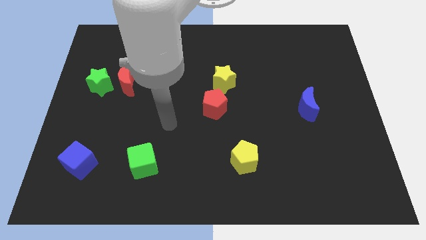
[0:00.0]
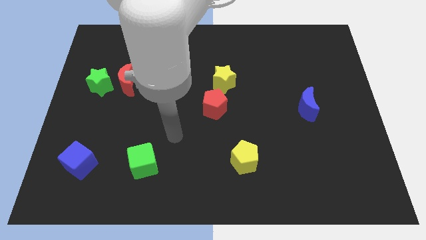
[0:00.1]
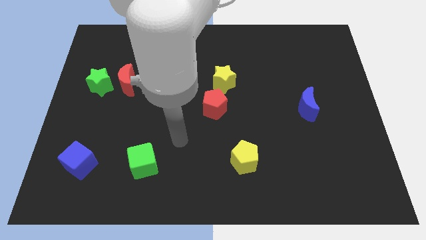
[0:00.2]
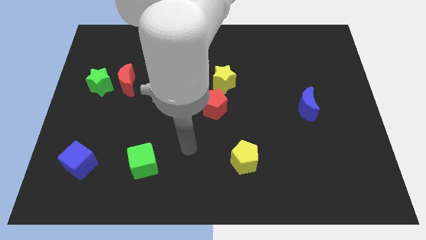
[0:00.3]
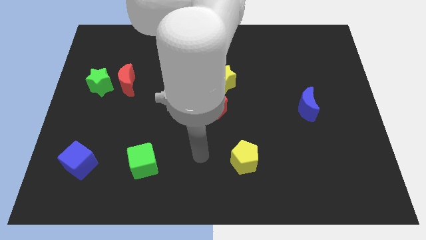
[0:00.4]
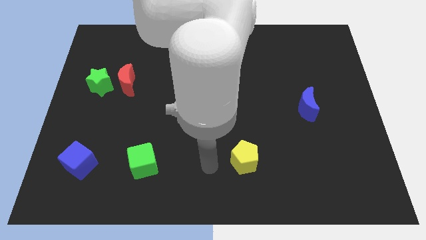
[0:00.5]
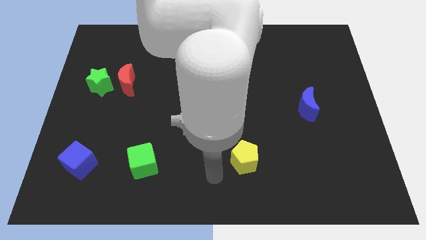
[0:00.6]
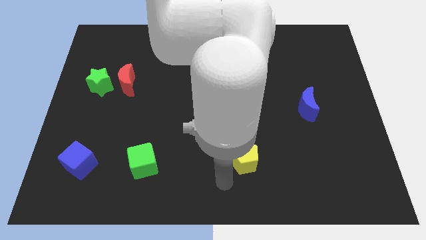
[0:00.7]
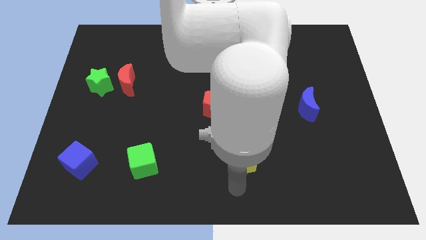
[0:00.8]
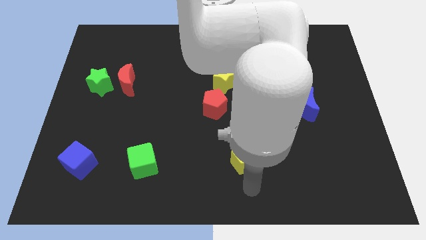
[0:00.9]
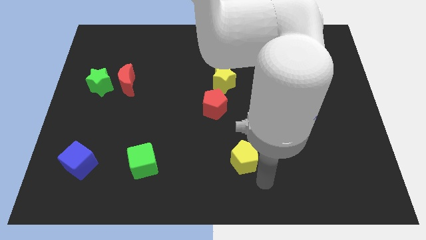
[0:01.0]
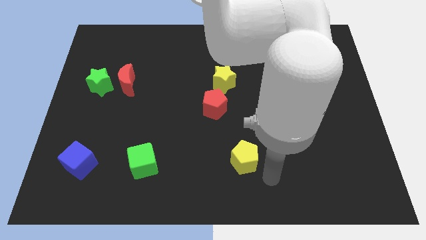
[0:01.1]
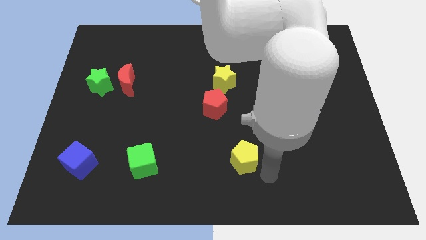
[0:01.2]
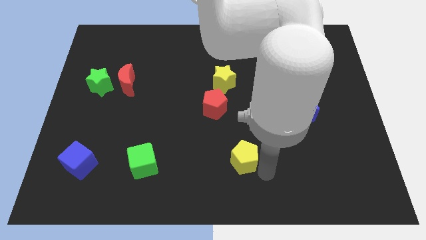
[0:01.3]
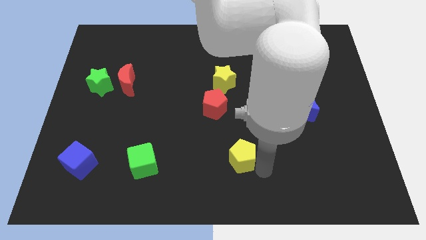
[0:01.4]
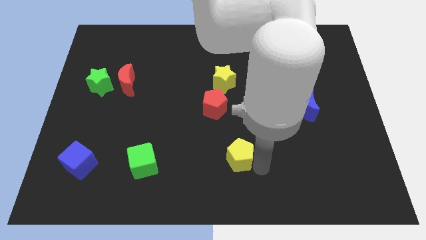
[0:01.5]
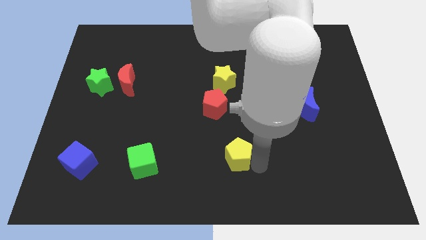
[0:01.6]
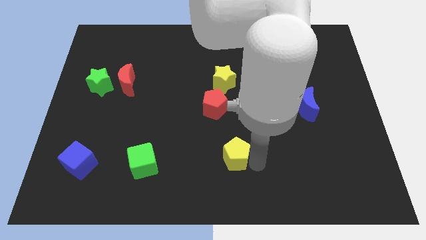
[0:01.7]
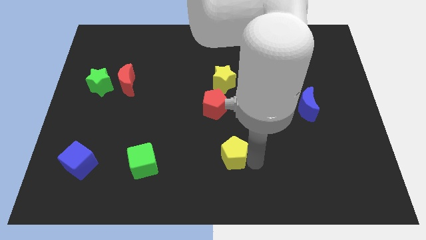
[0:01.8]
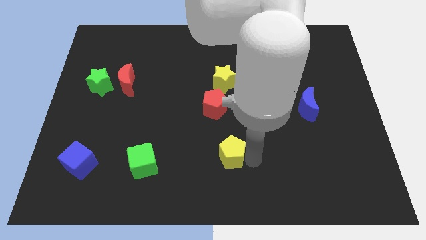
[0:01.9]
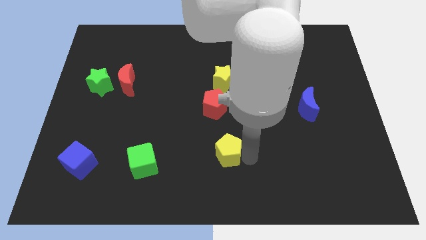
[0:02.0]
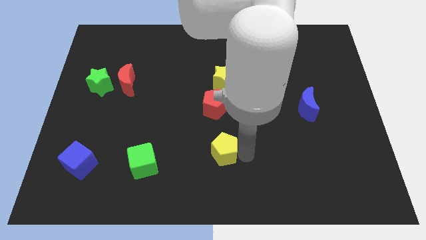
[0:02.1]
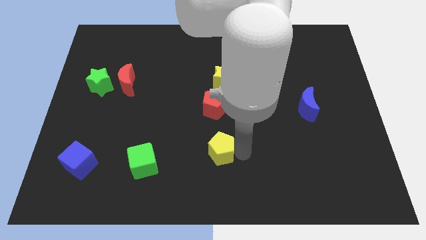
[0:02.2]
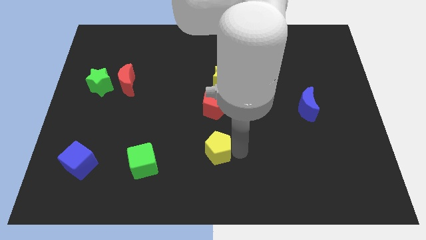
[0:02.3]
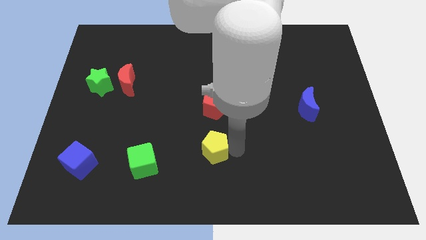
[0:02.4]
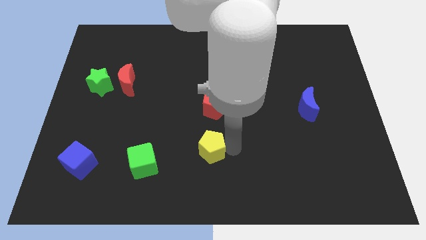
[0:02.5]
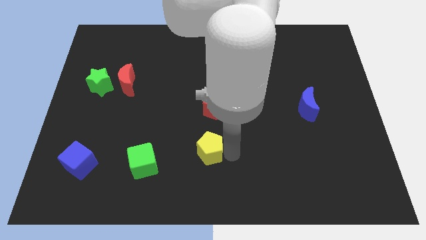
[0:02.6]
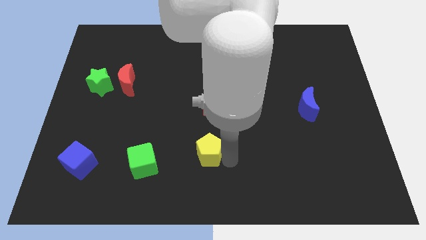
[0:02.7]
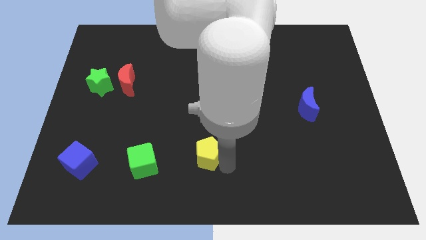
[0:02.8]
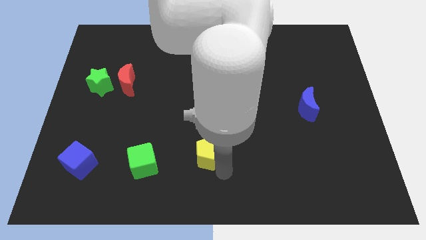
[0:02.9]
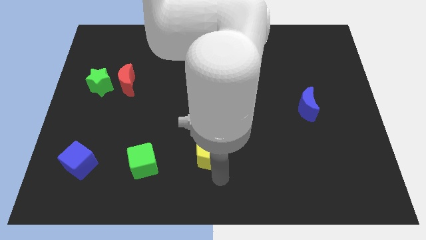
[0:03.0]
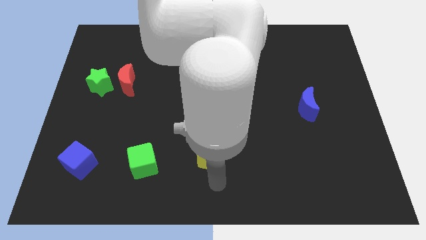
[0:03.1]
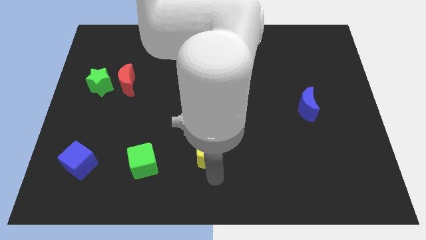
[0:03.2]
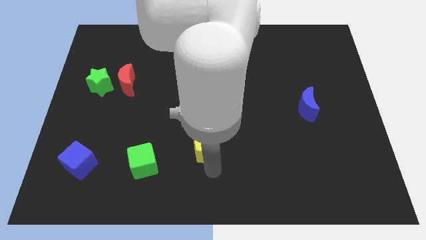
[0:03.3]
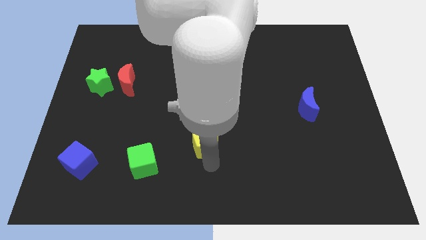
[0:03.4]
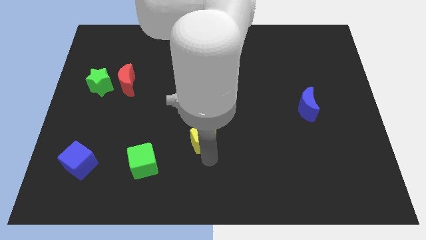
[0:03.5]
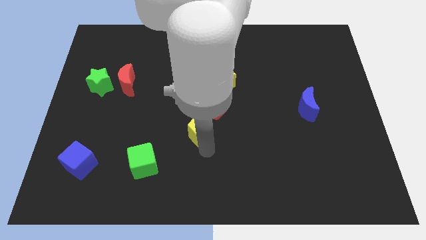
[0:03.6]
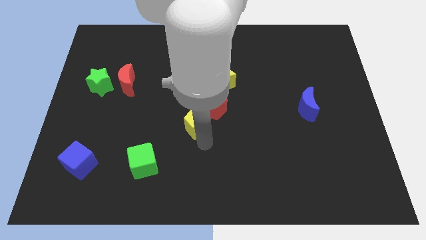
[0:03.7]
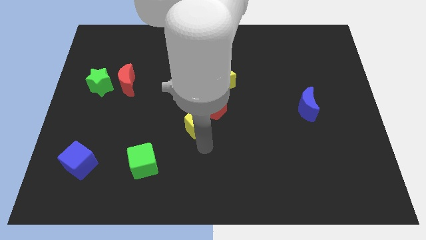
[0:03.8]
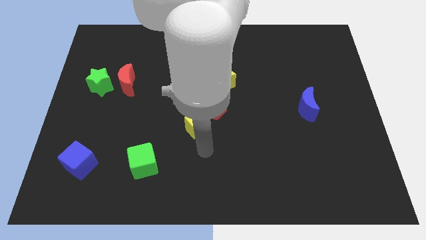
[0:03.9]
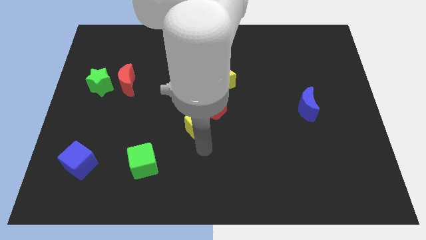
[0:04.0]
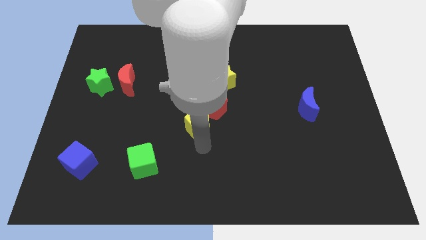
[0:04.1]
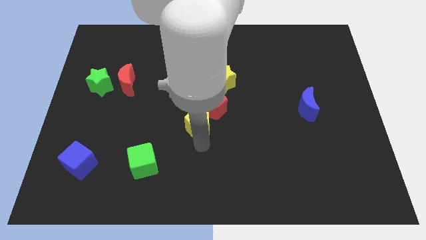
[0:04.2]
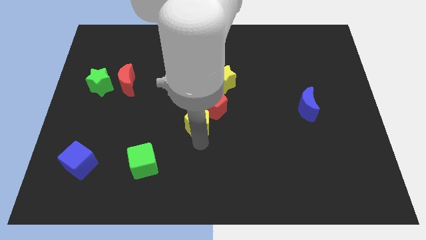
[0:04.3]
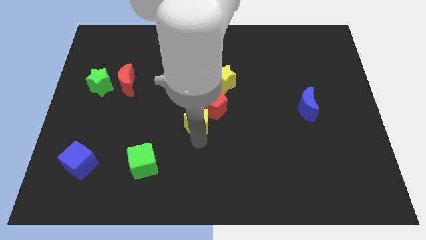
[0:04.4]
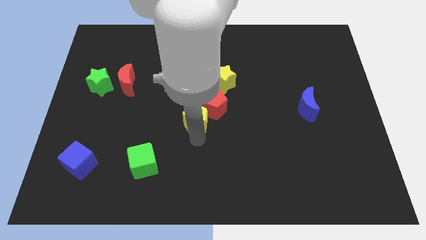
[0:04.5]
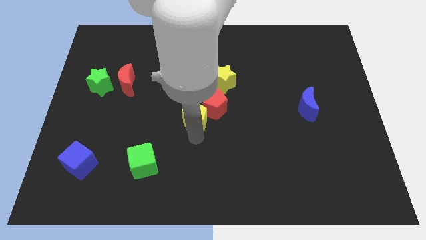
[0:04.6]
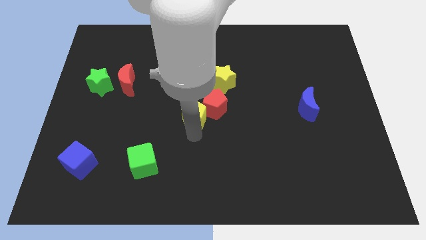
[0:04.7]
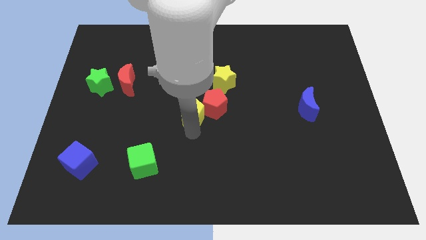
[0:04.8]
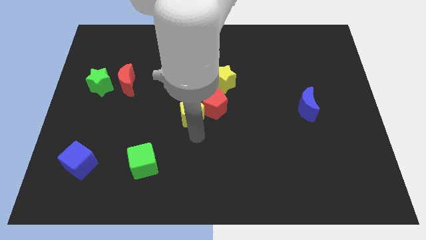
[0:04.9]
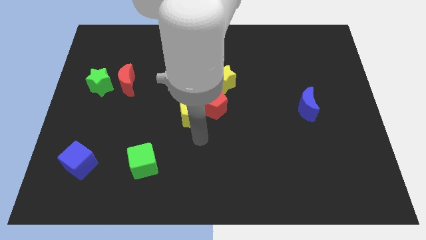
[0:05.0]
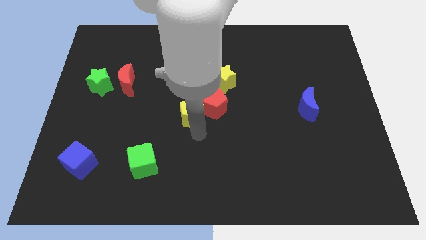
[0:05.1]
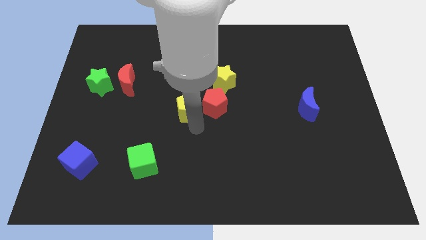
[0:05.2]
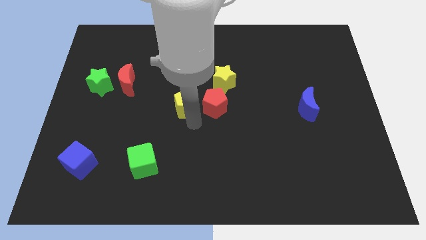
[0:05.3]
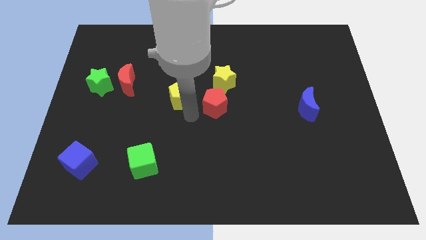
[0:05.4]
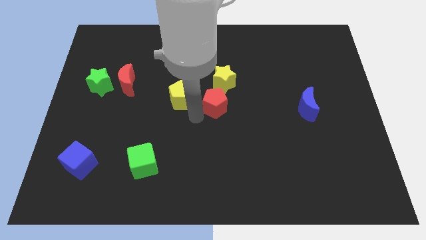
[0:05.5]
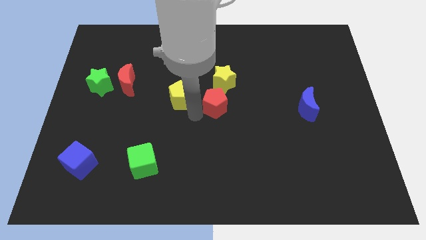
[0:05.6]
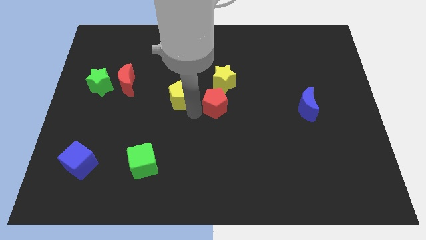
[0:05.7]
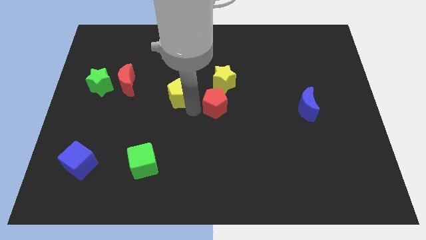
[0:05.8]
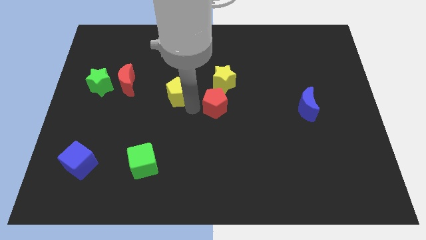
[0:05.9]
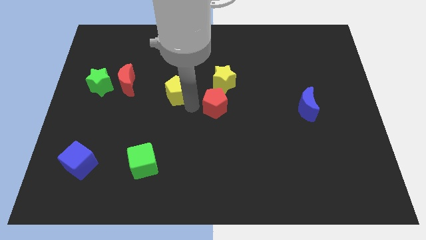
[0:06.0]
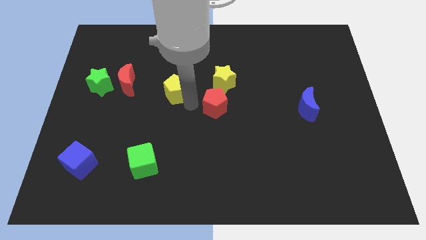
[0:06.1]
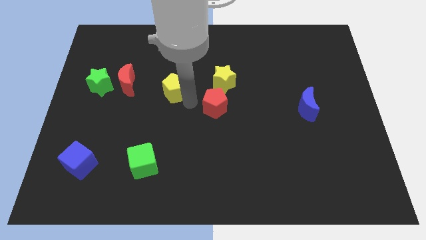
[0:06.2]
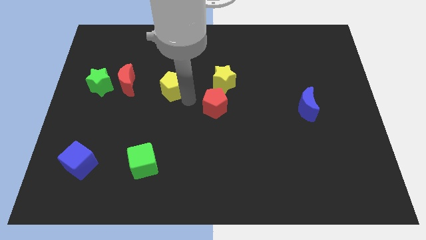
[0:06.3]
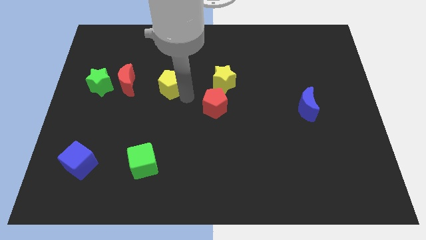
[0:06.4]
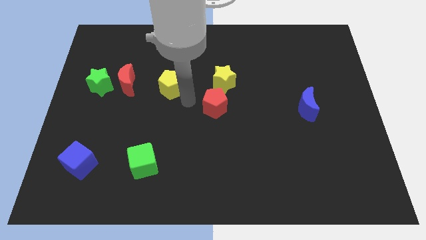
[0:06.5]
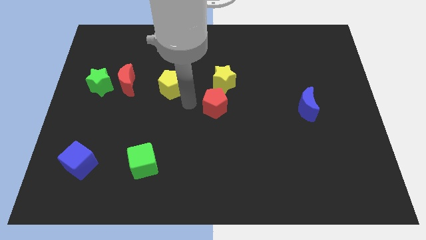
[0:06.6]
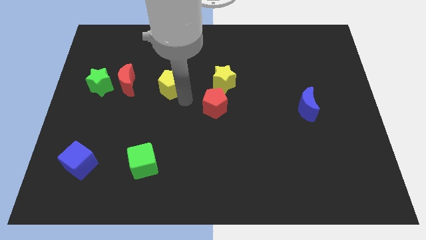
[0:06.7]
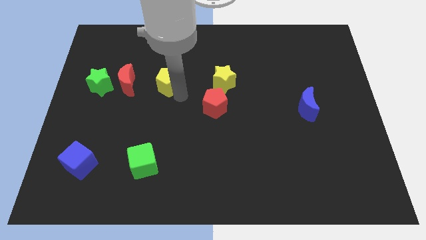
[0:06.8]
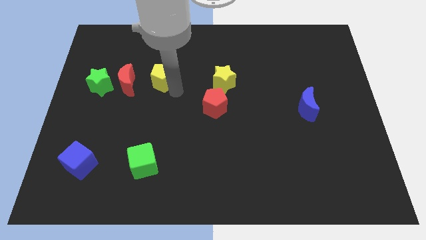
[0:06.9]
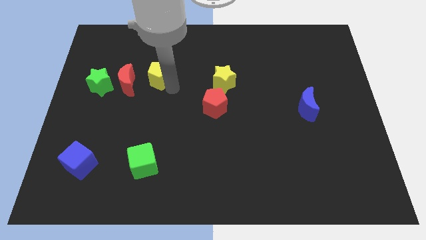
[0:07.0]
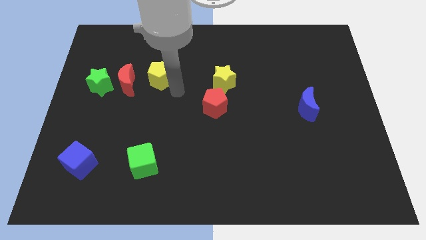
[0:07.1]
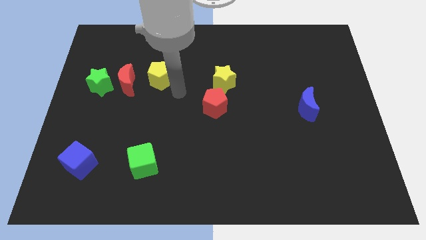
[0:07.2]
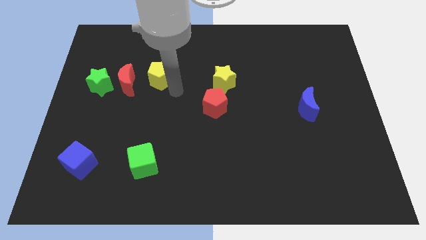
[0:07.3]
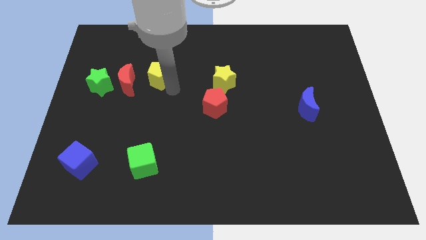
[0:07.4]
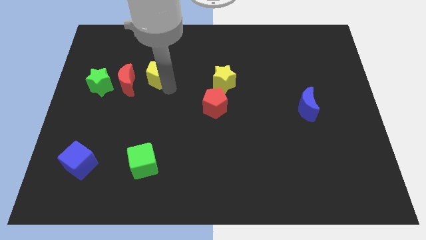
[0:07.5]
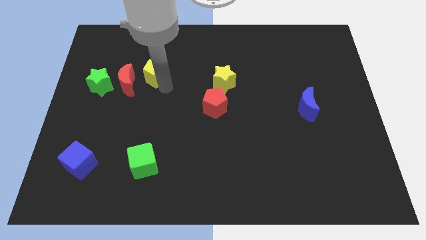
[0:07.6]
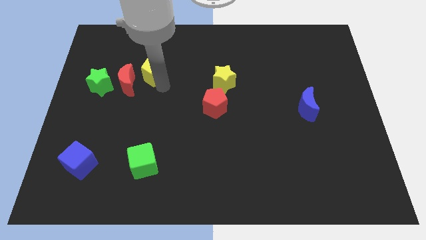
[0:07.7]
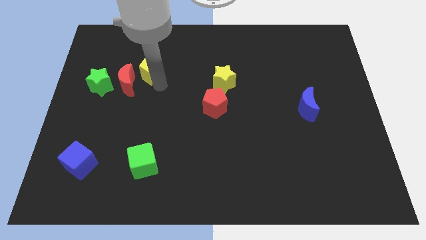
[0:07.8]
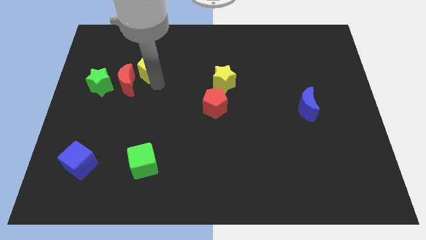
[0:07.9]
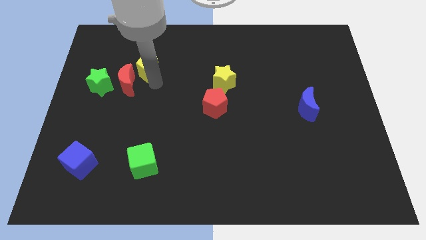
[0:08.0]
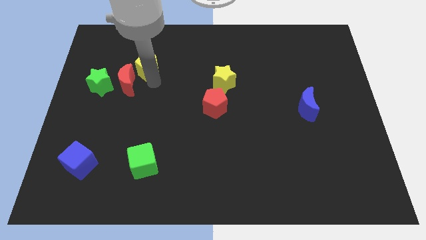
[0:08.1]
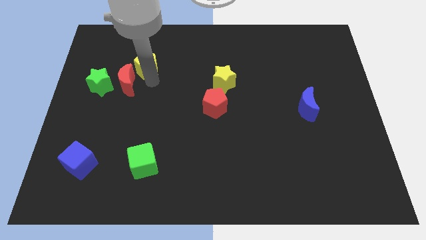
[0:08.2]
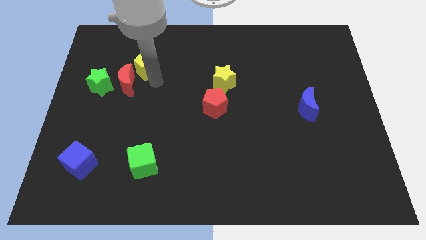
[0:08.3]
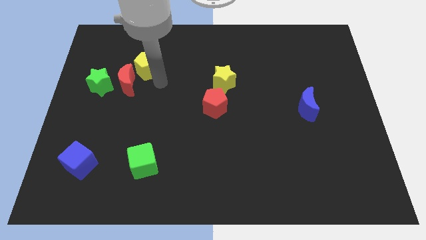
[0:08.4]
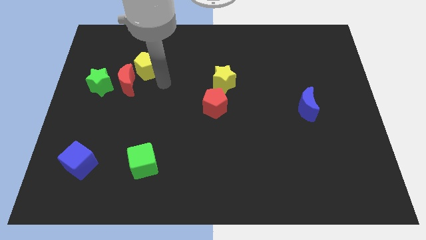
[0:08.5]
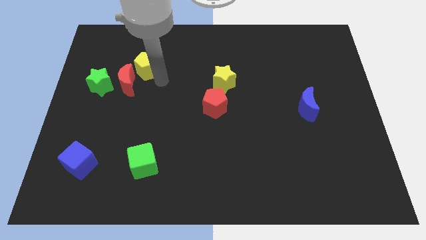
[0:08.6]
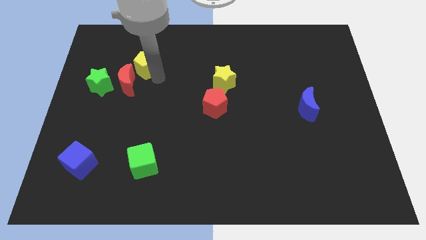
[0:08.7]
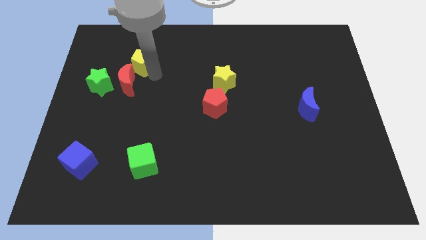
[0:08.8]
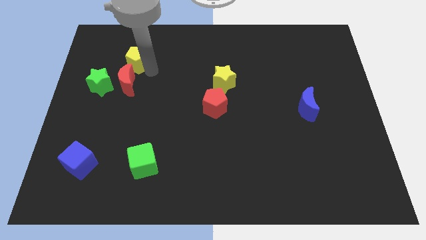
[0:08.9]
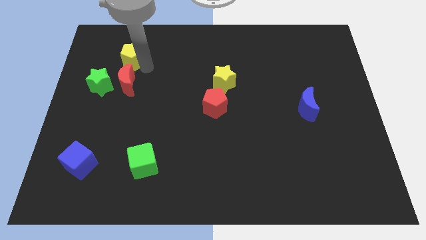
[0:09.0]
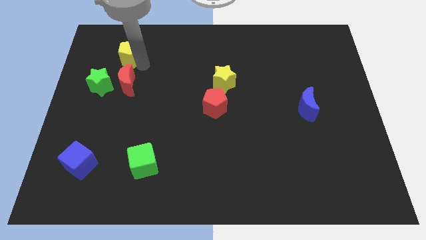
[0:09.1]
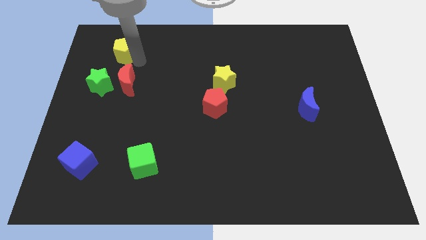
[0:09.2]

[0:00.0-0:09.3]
push the yellow pentagon to the top of the green star
